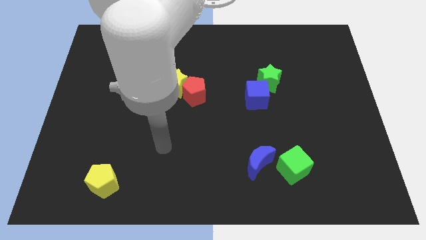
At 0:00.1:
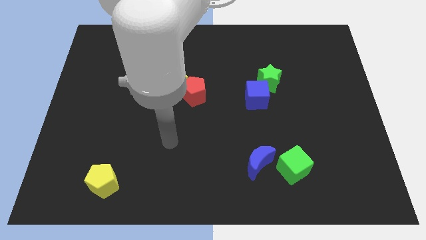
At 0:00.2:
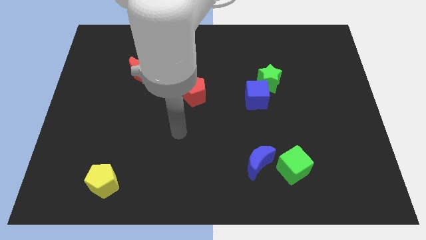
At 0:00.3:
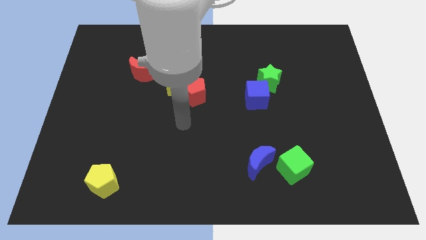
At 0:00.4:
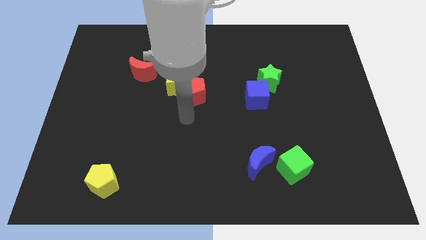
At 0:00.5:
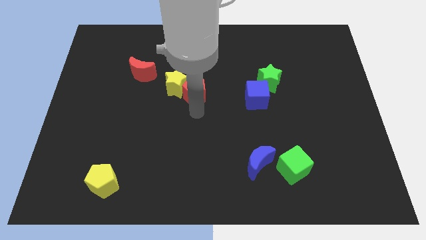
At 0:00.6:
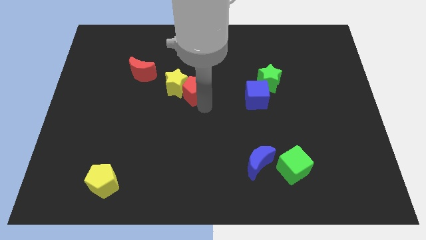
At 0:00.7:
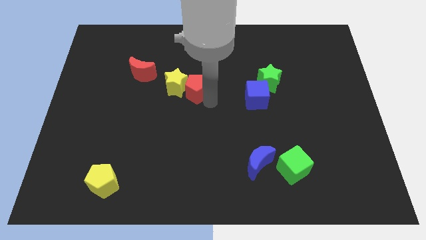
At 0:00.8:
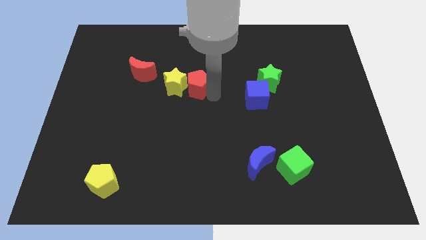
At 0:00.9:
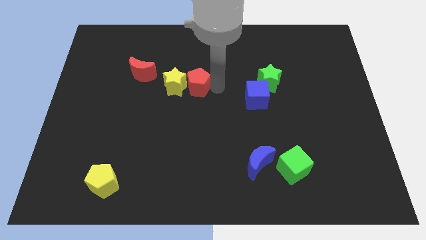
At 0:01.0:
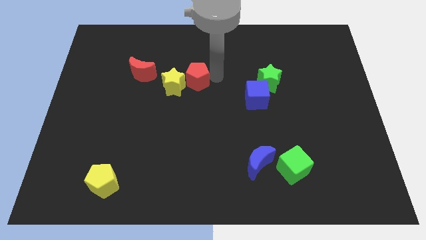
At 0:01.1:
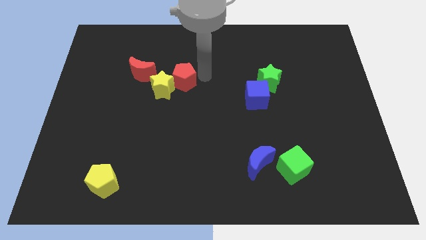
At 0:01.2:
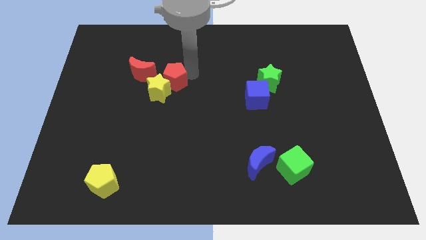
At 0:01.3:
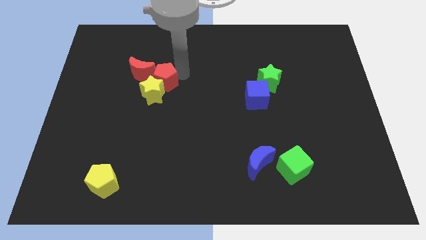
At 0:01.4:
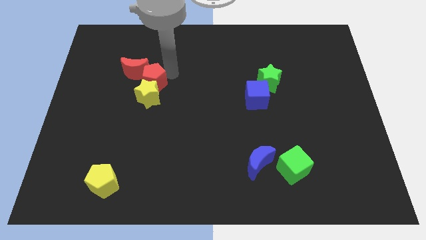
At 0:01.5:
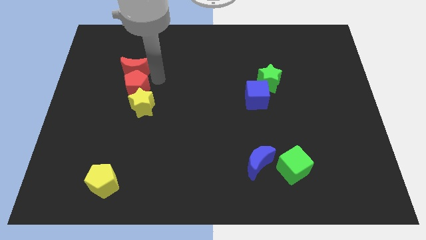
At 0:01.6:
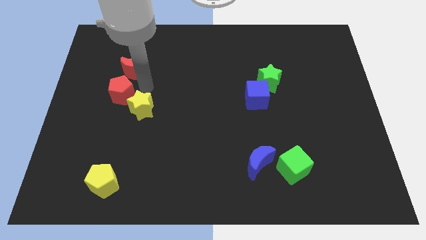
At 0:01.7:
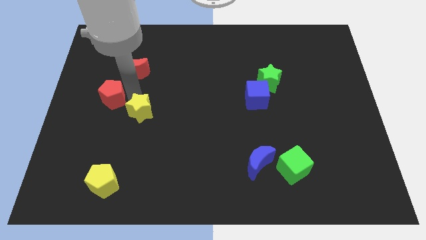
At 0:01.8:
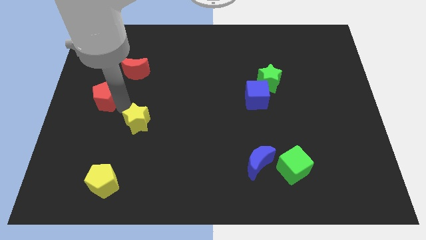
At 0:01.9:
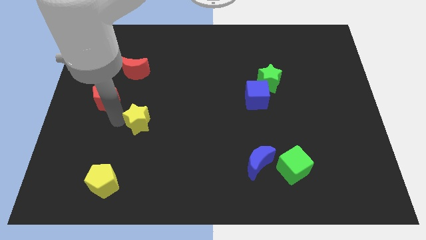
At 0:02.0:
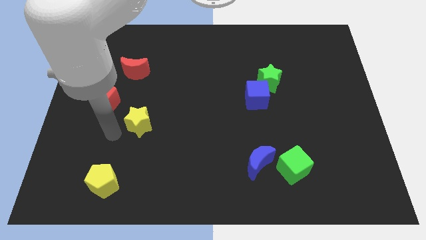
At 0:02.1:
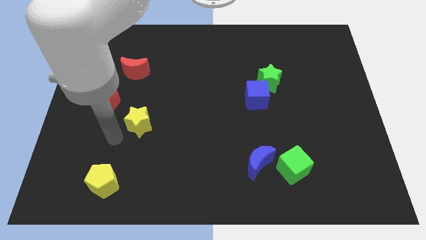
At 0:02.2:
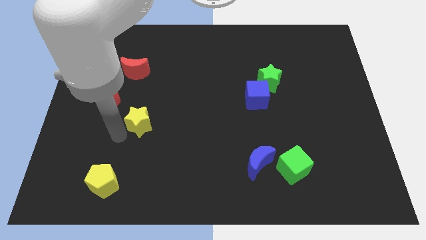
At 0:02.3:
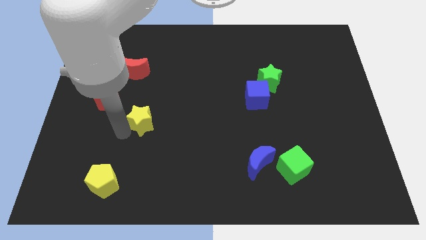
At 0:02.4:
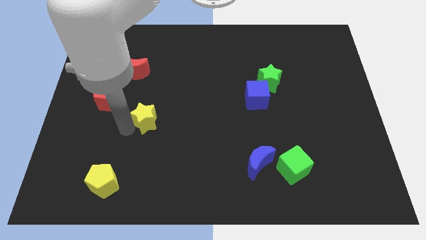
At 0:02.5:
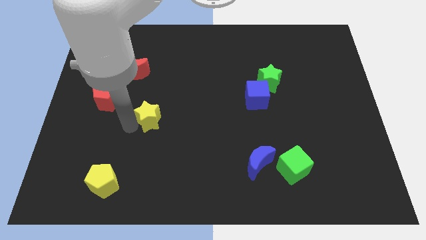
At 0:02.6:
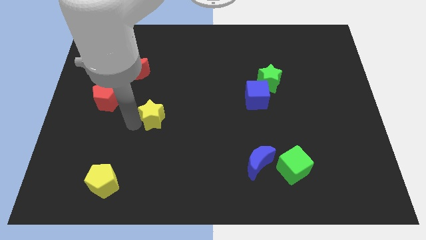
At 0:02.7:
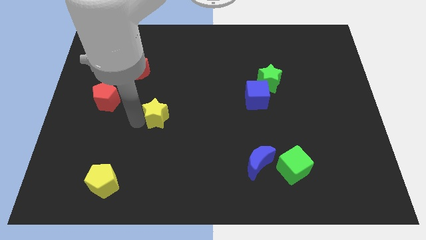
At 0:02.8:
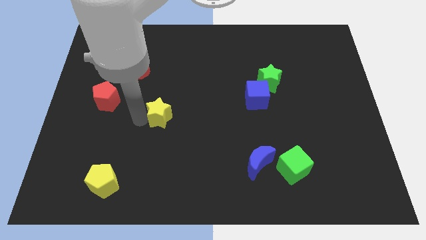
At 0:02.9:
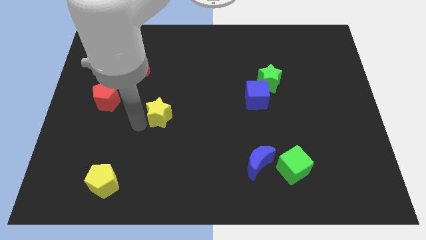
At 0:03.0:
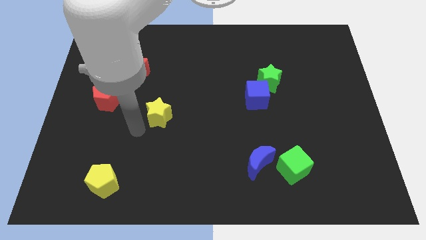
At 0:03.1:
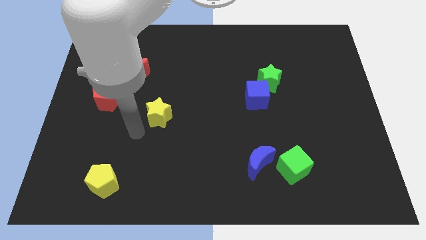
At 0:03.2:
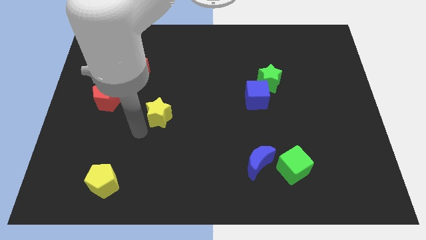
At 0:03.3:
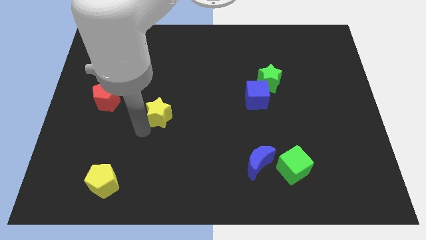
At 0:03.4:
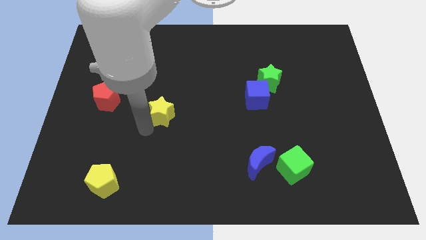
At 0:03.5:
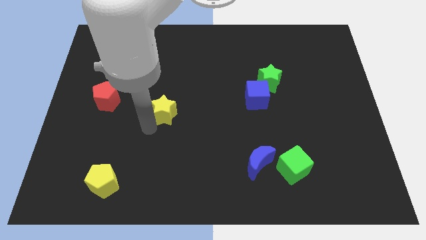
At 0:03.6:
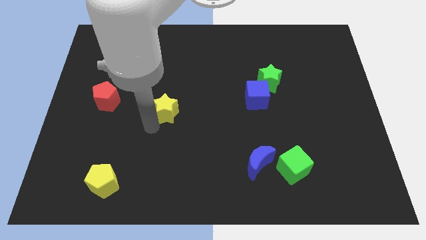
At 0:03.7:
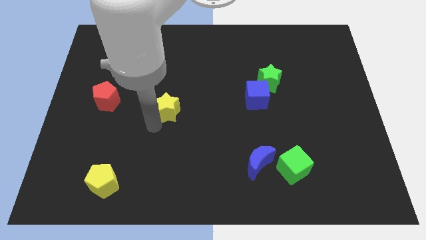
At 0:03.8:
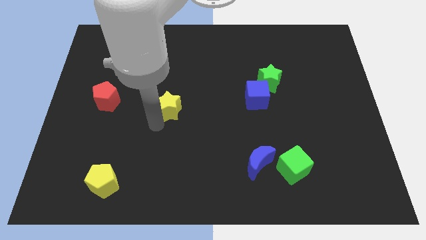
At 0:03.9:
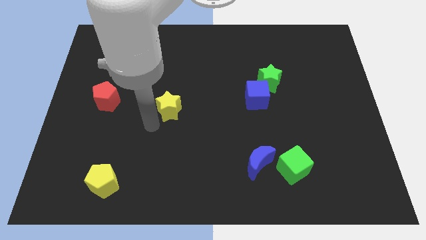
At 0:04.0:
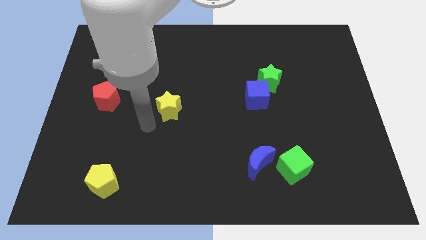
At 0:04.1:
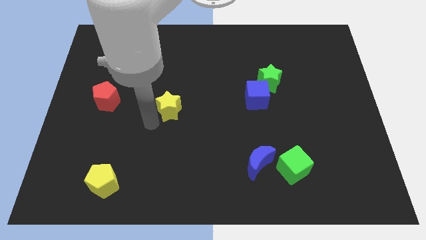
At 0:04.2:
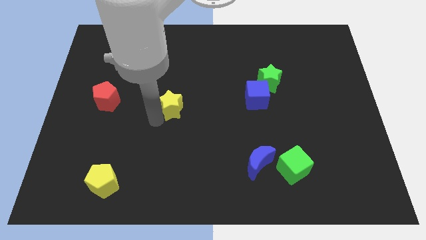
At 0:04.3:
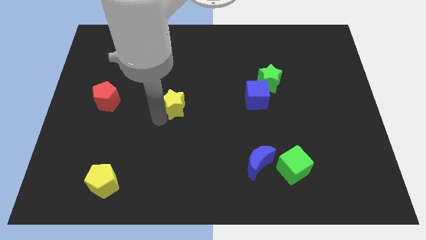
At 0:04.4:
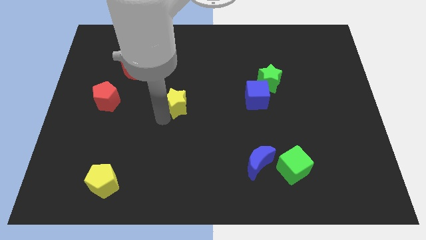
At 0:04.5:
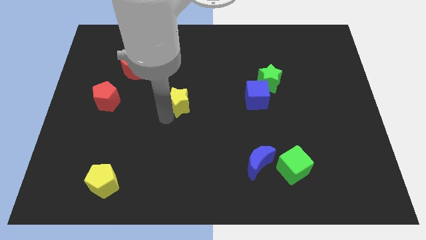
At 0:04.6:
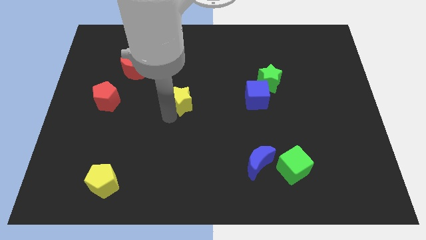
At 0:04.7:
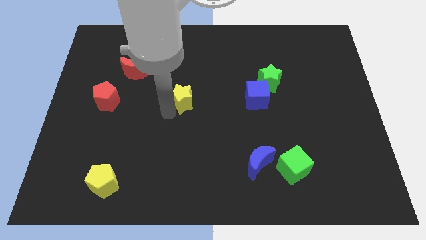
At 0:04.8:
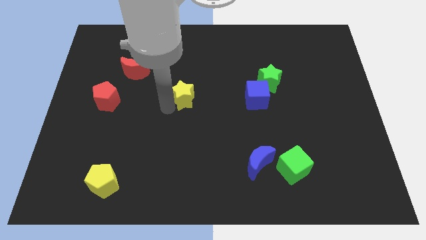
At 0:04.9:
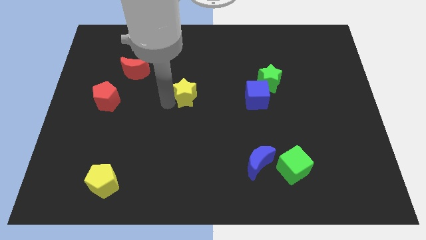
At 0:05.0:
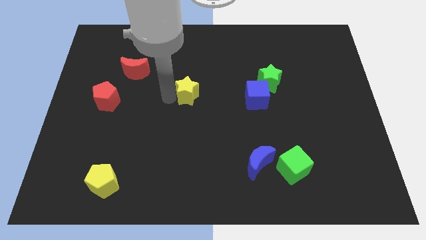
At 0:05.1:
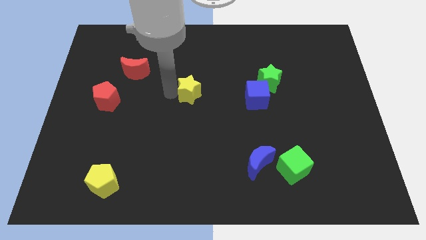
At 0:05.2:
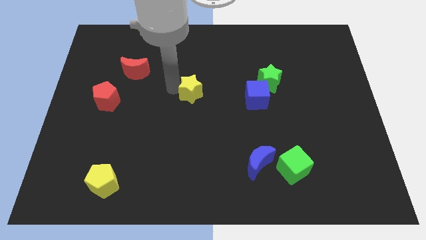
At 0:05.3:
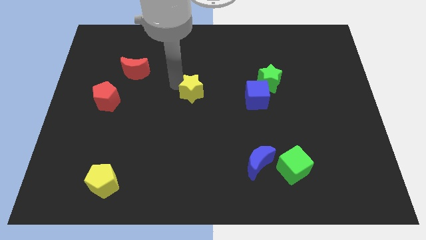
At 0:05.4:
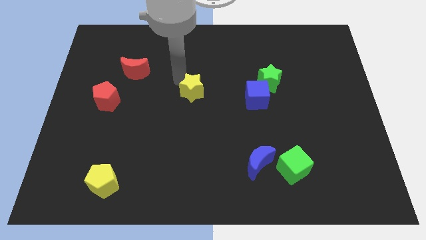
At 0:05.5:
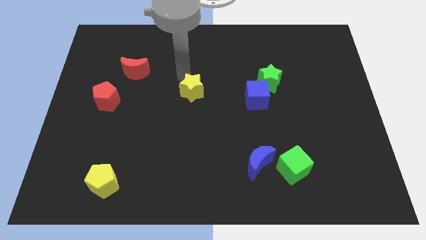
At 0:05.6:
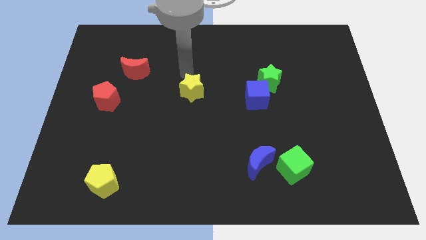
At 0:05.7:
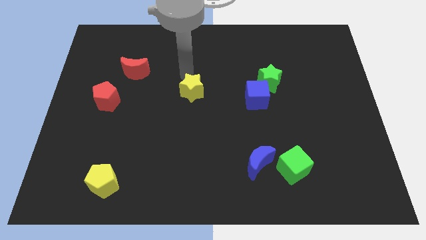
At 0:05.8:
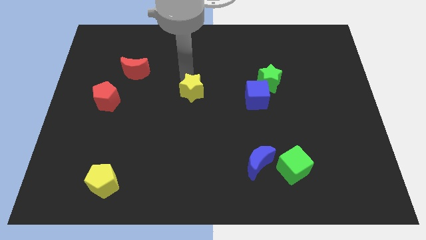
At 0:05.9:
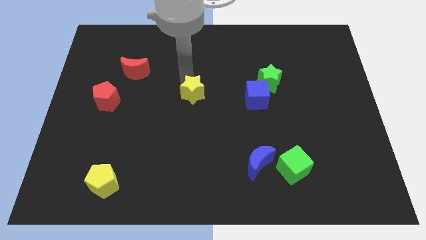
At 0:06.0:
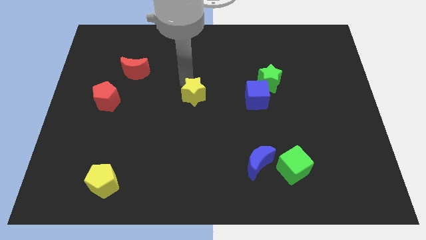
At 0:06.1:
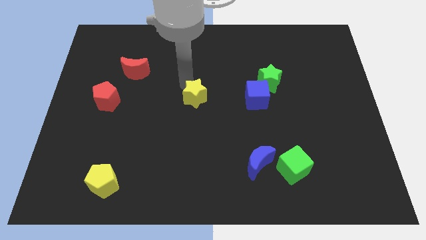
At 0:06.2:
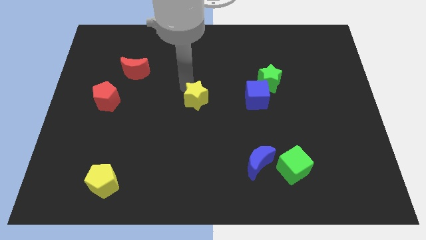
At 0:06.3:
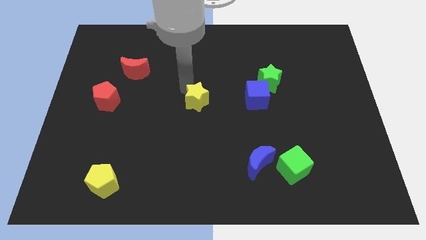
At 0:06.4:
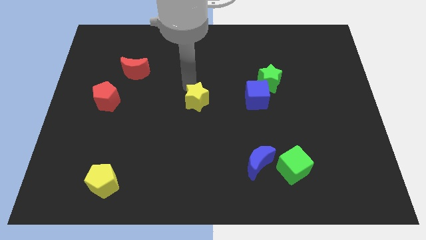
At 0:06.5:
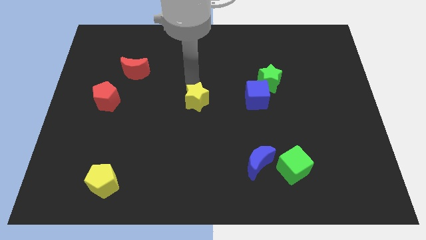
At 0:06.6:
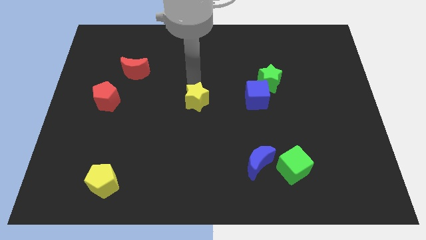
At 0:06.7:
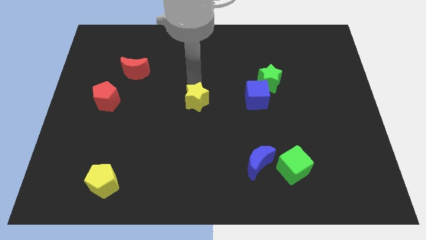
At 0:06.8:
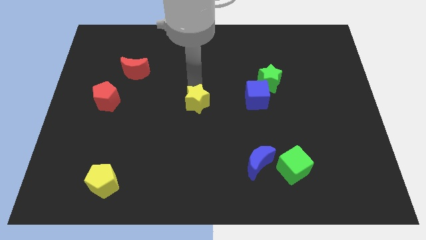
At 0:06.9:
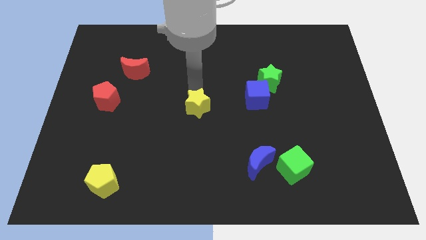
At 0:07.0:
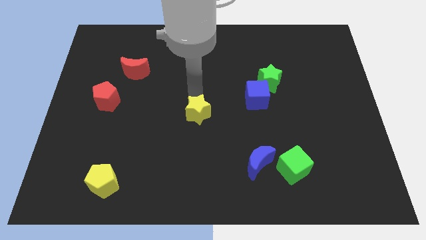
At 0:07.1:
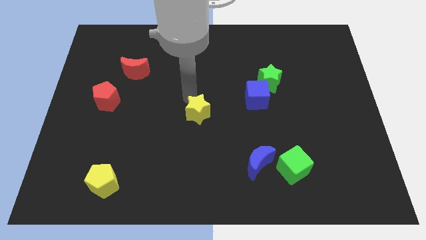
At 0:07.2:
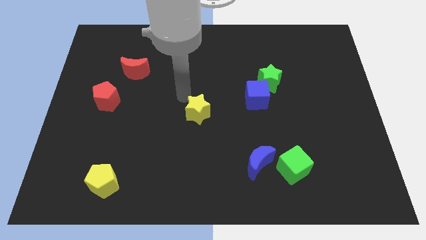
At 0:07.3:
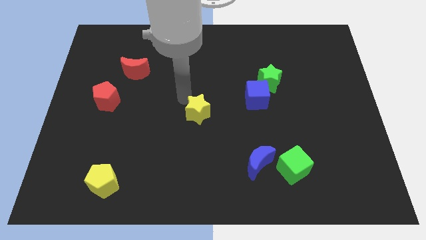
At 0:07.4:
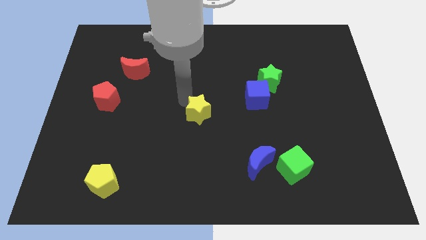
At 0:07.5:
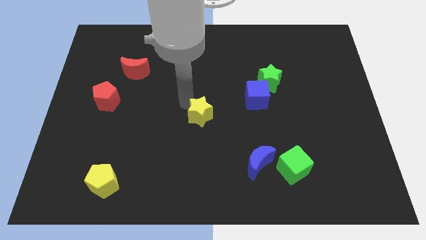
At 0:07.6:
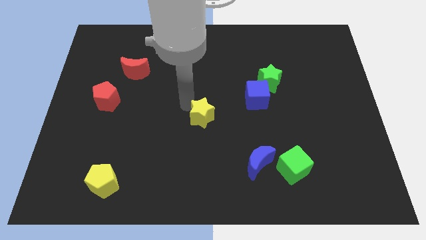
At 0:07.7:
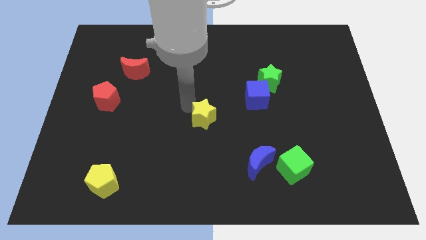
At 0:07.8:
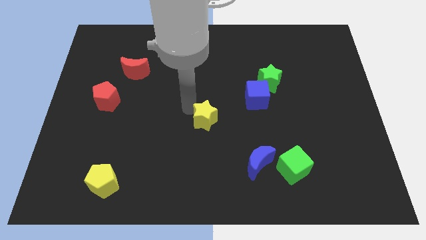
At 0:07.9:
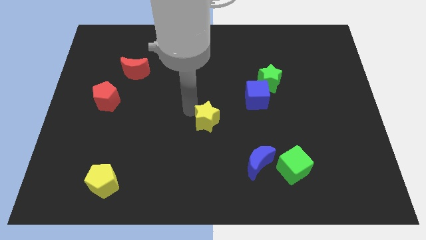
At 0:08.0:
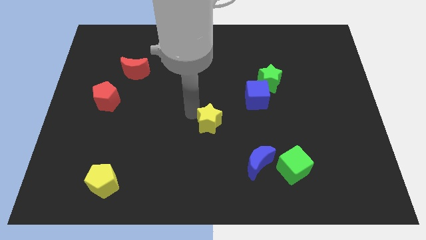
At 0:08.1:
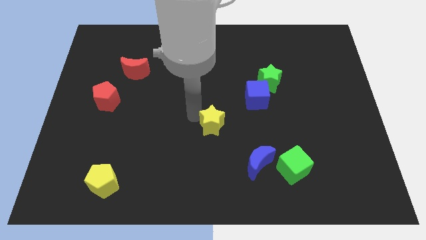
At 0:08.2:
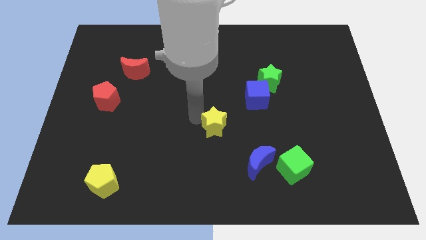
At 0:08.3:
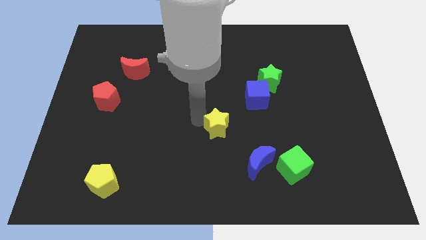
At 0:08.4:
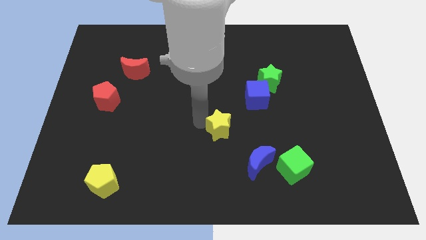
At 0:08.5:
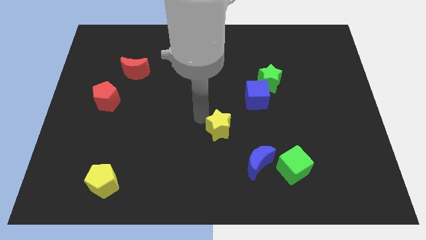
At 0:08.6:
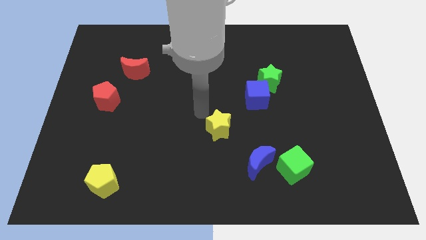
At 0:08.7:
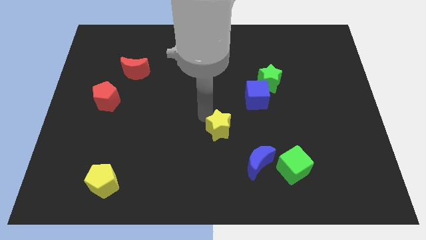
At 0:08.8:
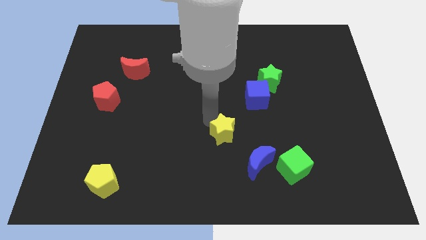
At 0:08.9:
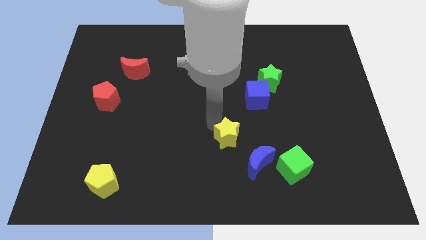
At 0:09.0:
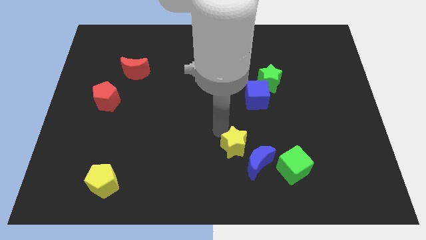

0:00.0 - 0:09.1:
slide the yellow star close to the blue moon
